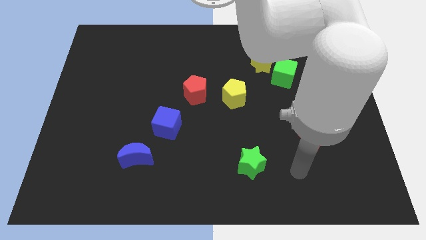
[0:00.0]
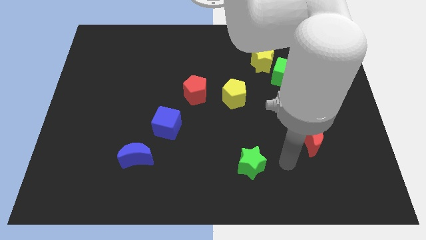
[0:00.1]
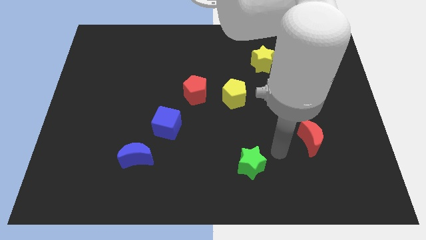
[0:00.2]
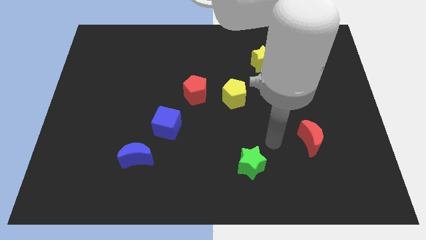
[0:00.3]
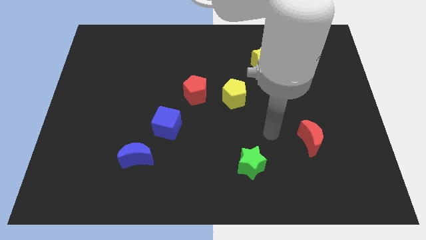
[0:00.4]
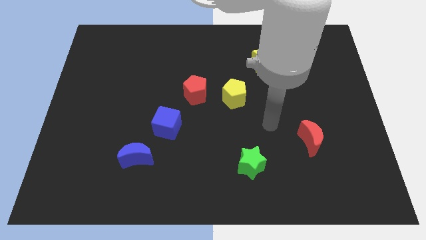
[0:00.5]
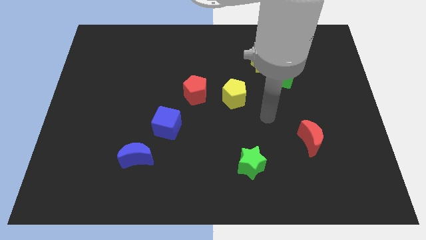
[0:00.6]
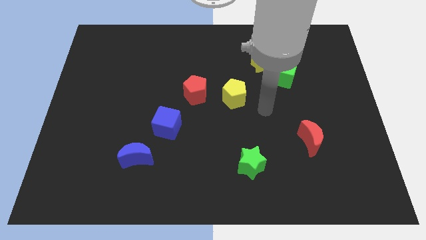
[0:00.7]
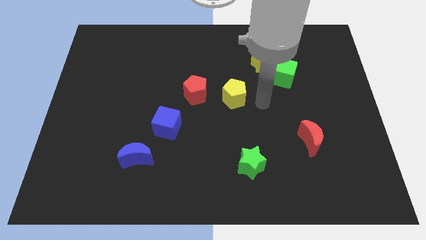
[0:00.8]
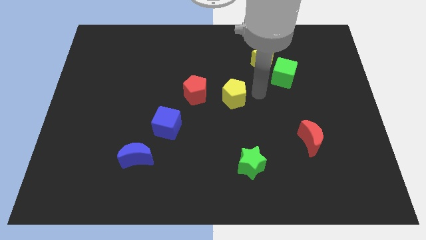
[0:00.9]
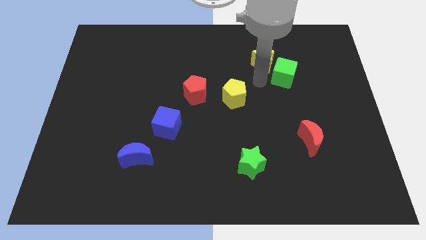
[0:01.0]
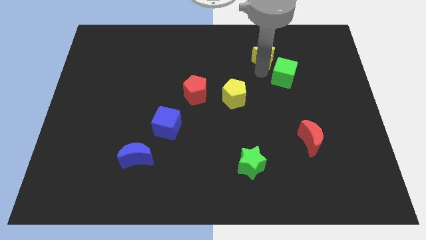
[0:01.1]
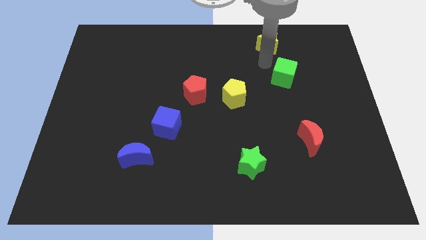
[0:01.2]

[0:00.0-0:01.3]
move the green cube away from the yellow star

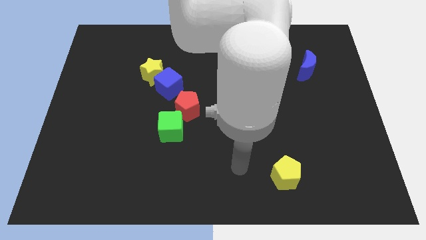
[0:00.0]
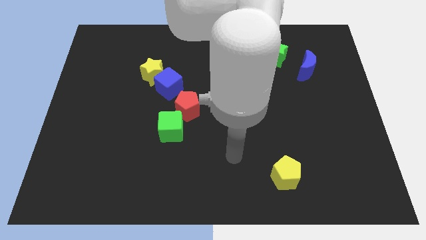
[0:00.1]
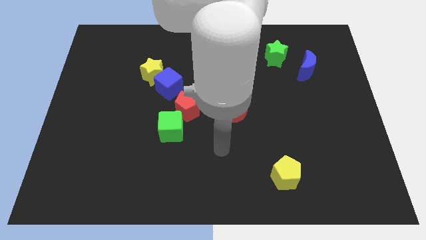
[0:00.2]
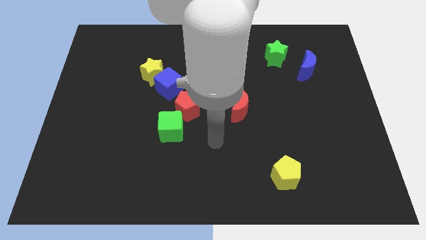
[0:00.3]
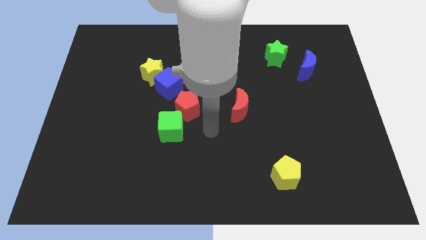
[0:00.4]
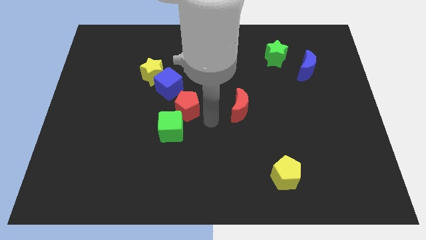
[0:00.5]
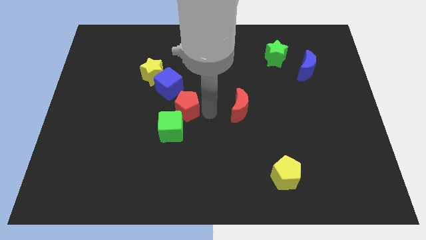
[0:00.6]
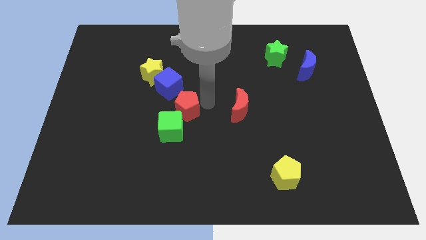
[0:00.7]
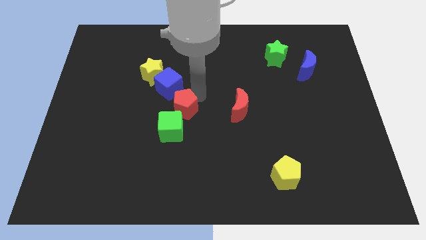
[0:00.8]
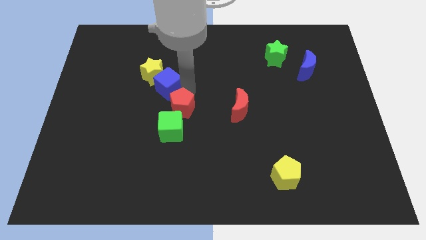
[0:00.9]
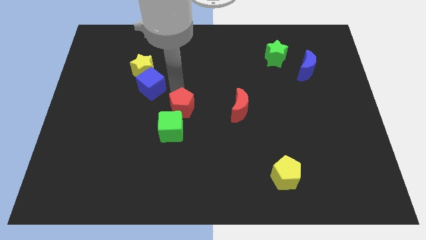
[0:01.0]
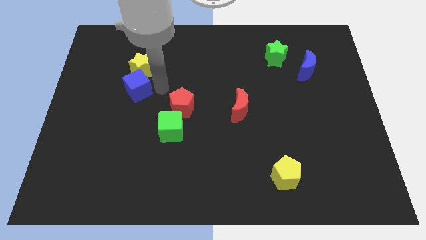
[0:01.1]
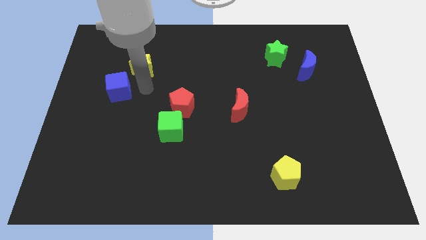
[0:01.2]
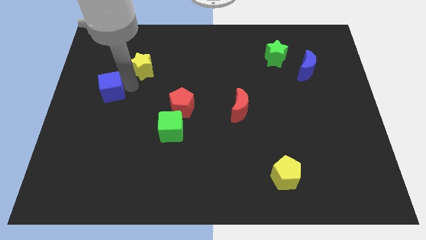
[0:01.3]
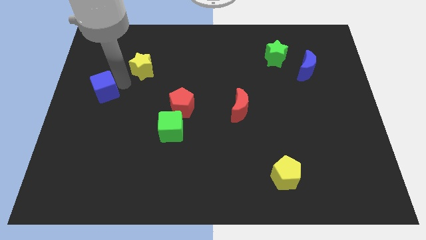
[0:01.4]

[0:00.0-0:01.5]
move the yellow star away from the blue cube

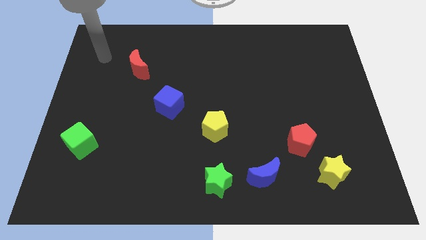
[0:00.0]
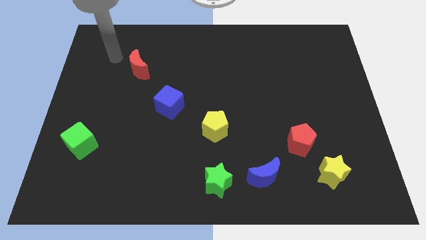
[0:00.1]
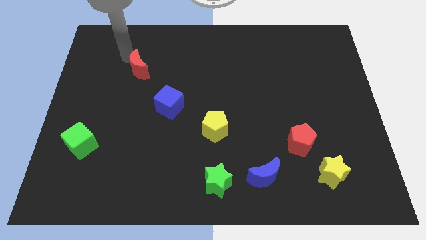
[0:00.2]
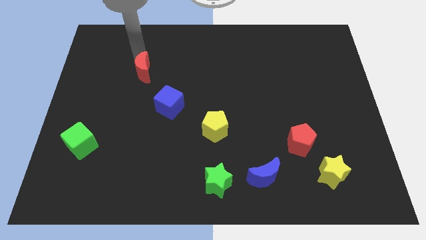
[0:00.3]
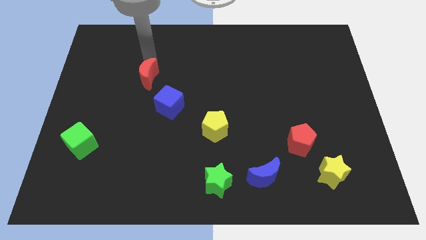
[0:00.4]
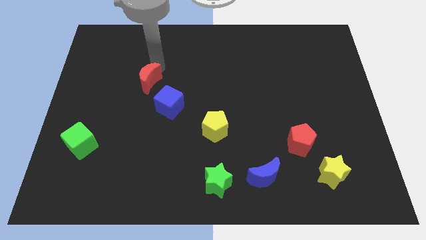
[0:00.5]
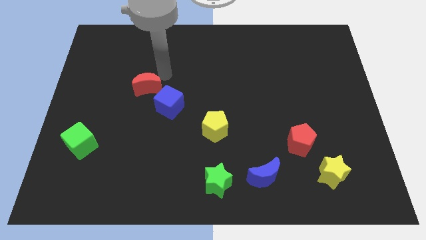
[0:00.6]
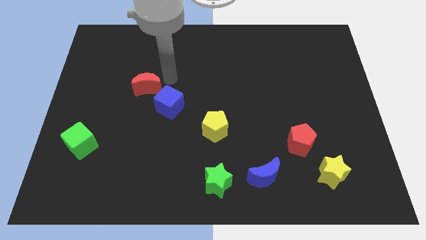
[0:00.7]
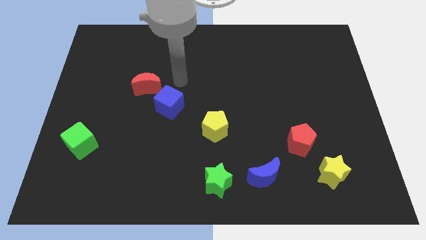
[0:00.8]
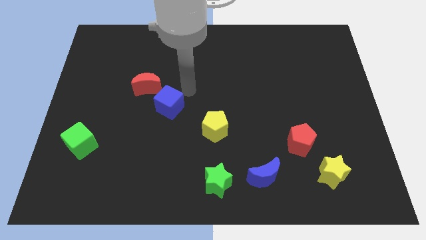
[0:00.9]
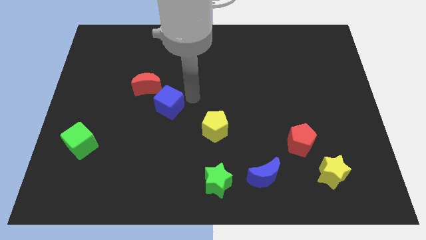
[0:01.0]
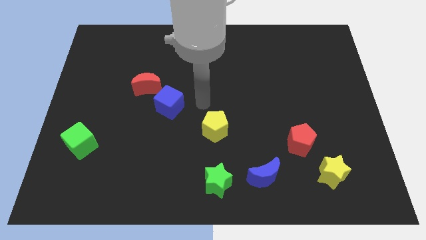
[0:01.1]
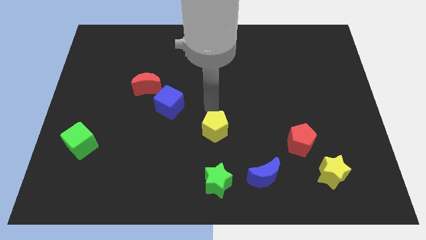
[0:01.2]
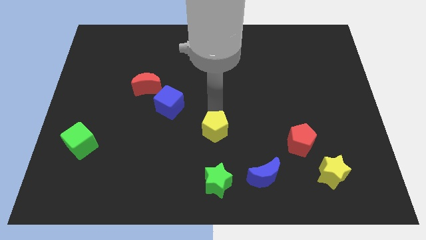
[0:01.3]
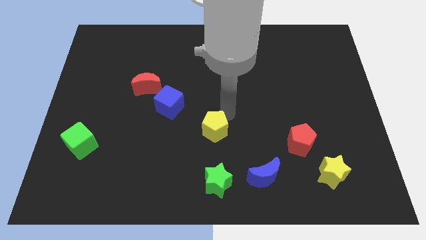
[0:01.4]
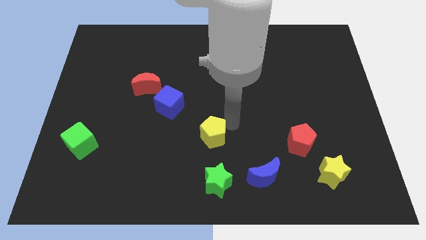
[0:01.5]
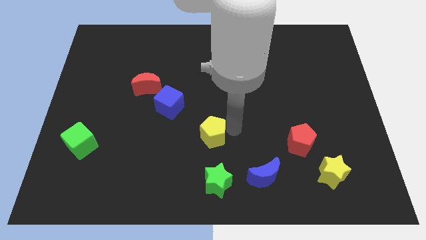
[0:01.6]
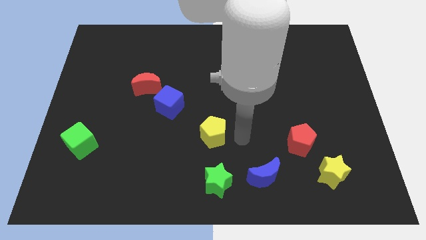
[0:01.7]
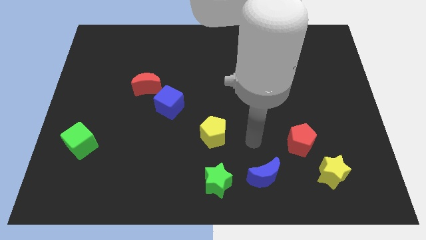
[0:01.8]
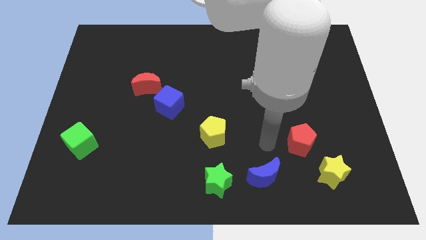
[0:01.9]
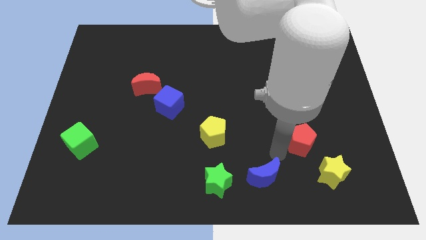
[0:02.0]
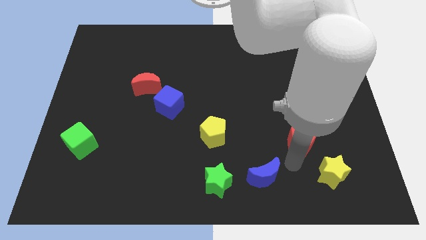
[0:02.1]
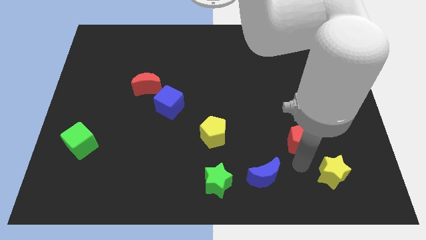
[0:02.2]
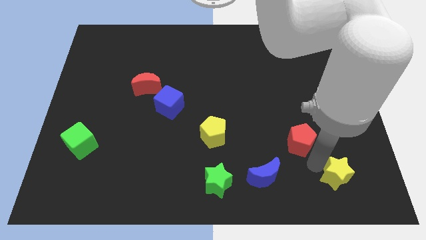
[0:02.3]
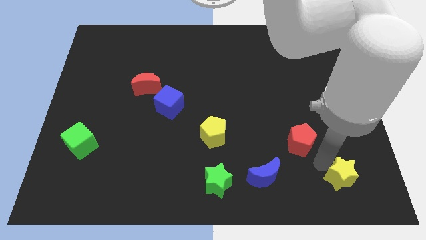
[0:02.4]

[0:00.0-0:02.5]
move the red pentagon away from the yellow star

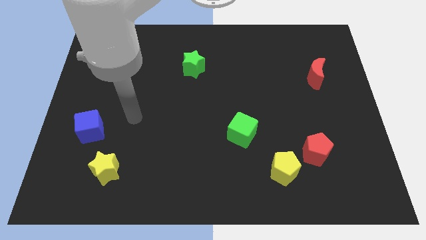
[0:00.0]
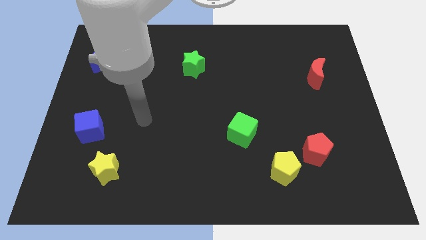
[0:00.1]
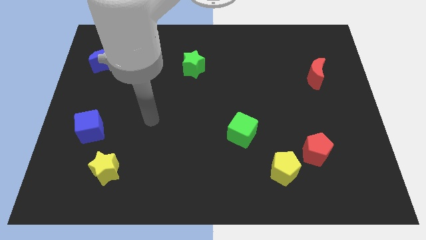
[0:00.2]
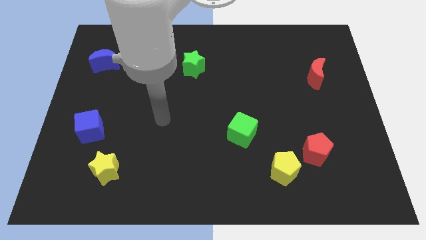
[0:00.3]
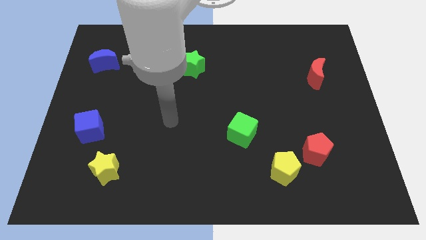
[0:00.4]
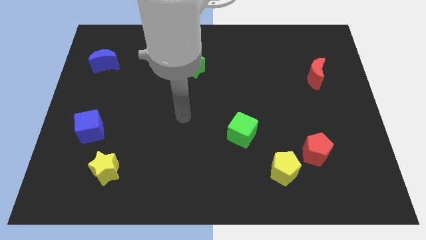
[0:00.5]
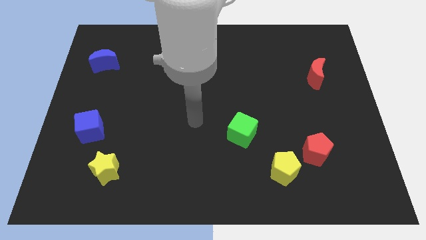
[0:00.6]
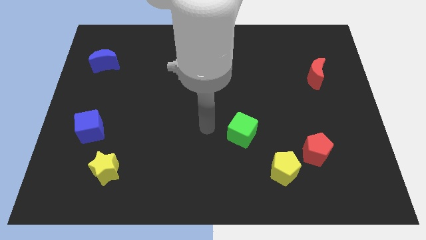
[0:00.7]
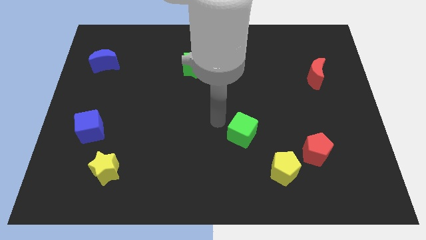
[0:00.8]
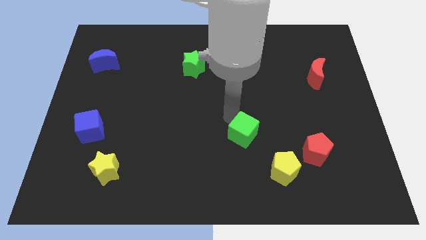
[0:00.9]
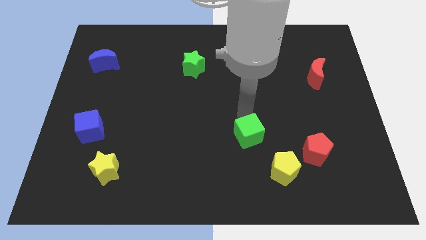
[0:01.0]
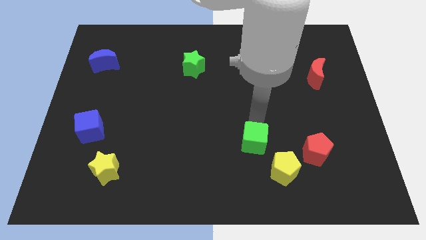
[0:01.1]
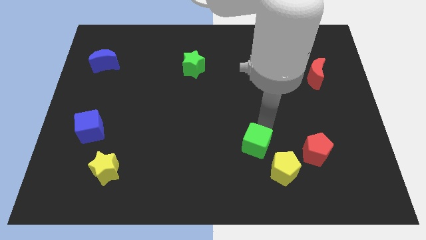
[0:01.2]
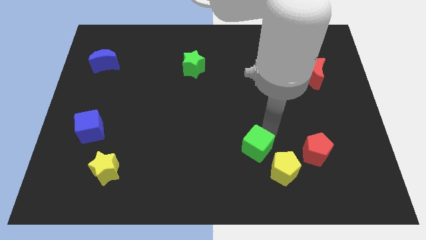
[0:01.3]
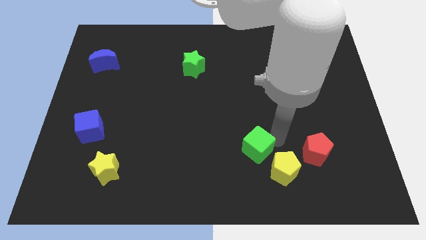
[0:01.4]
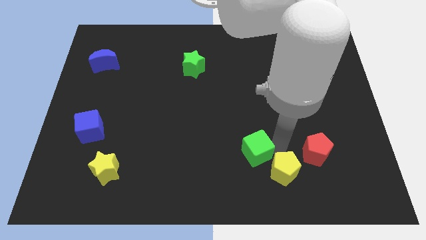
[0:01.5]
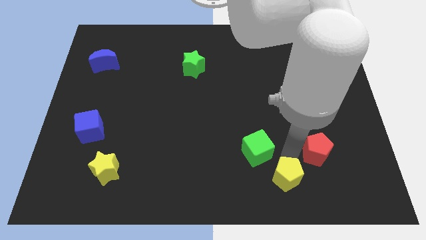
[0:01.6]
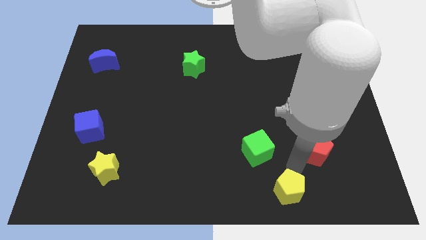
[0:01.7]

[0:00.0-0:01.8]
separate the red pentagon from the yellow pentagon

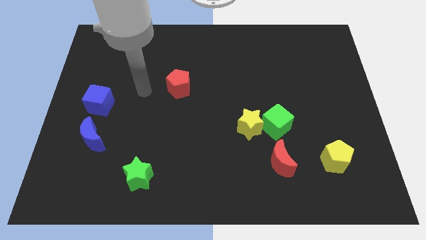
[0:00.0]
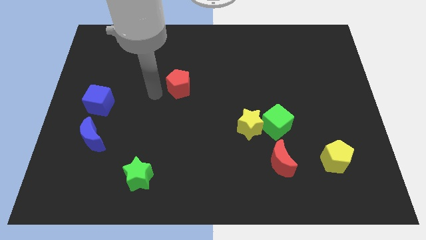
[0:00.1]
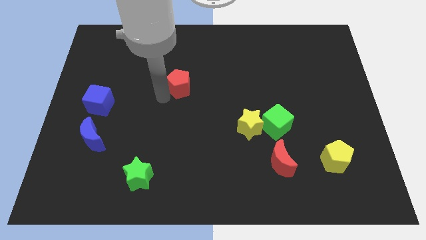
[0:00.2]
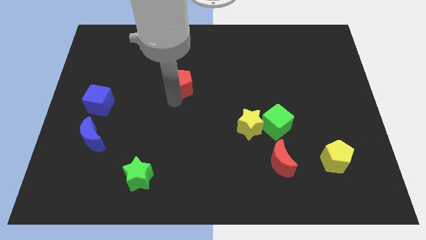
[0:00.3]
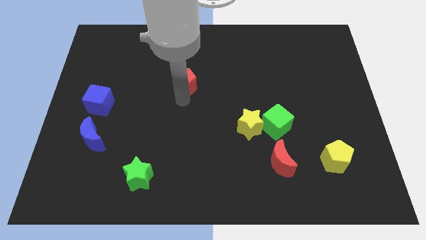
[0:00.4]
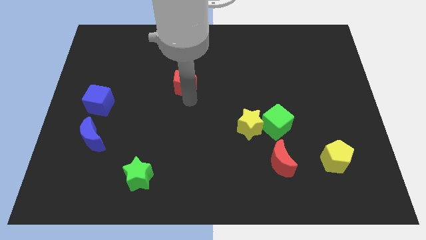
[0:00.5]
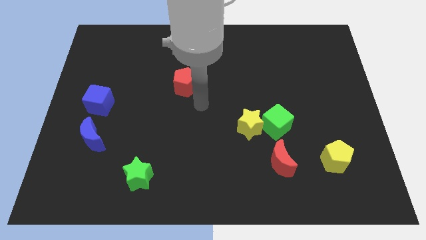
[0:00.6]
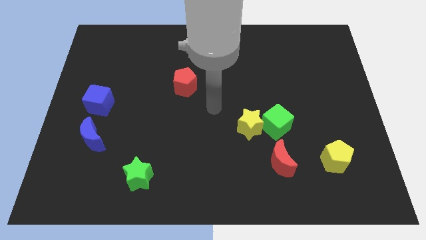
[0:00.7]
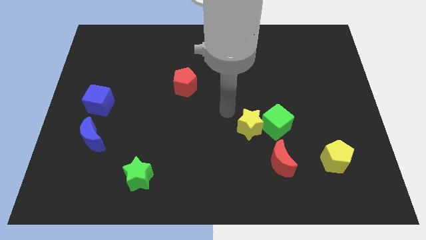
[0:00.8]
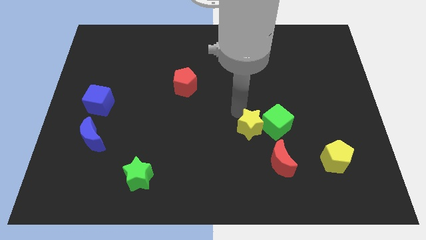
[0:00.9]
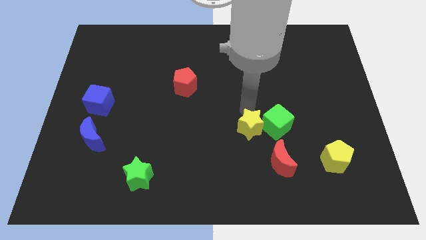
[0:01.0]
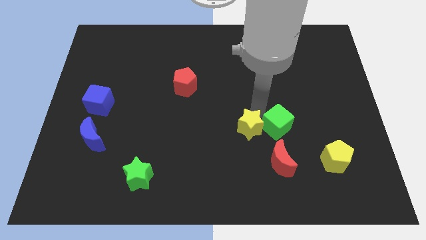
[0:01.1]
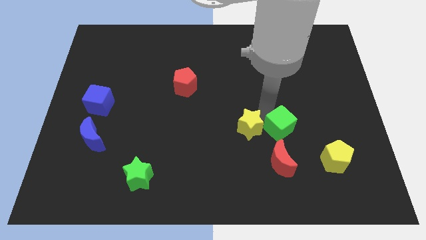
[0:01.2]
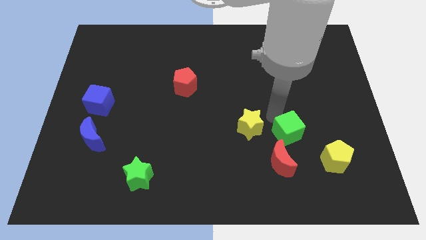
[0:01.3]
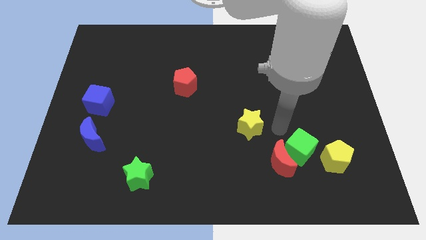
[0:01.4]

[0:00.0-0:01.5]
move the yellow star away from the green cube

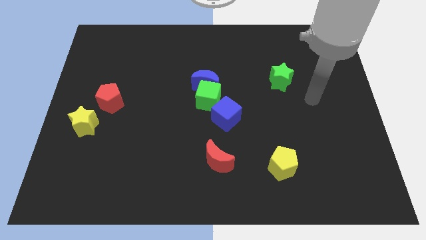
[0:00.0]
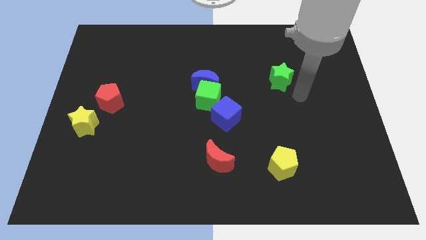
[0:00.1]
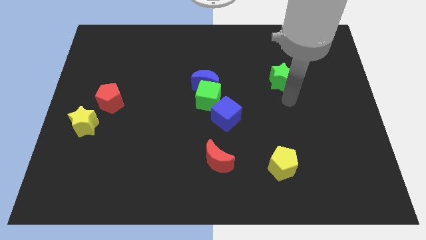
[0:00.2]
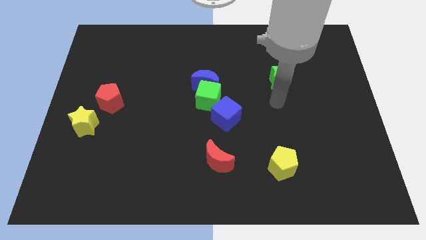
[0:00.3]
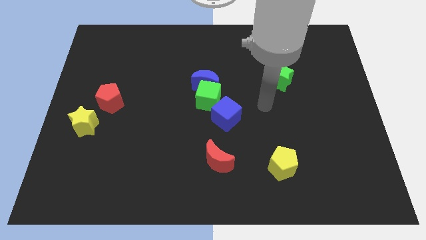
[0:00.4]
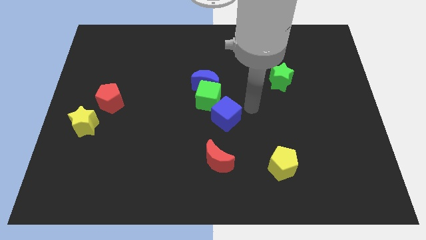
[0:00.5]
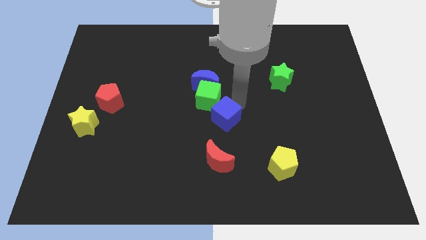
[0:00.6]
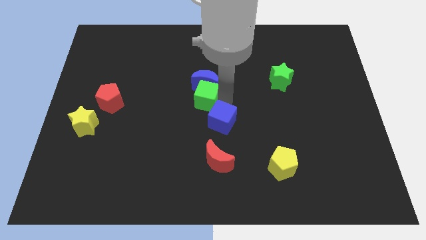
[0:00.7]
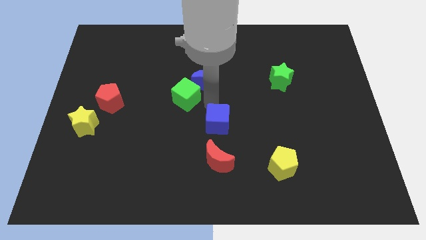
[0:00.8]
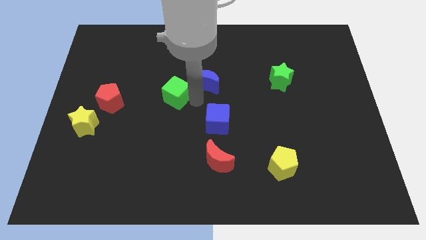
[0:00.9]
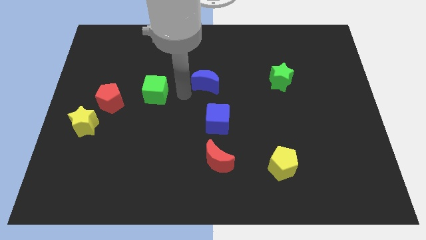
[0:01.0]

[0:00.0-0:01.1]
move the blue moon away from the green cube
